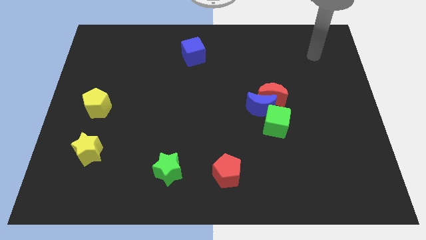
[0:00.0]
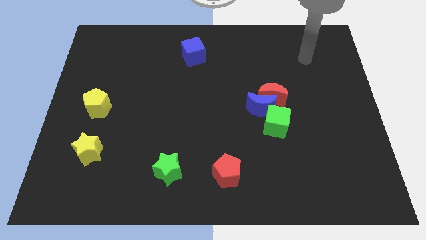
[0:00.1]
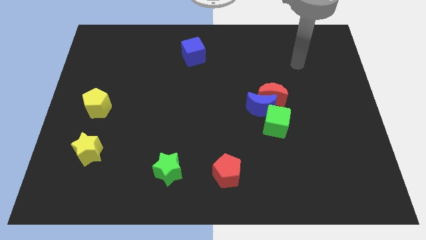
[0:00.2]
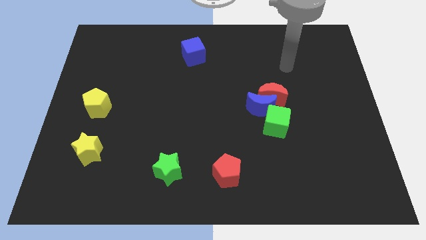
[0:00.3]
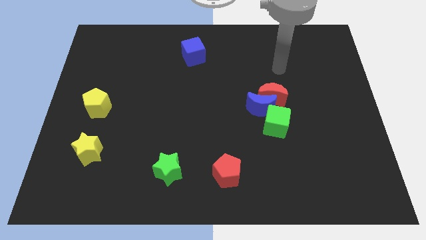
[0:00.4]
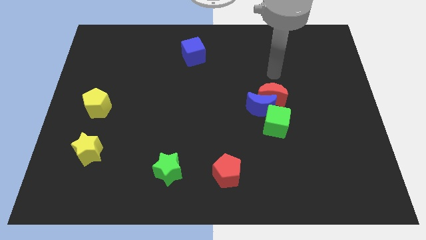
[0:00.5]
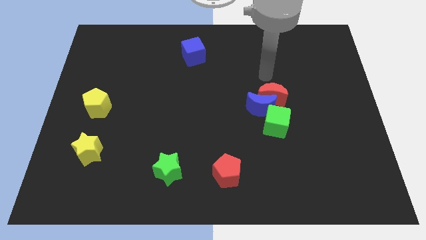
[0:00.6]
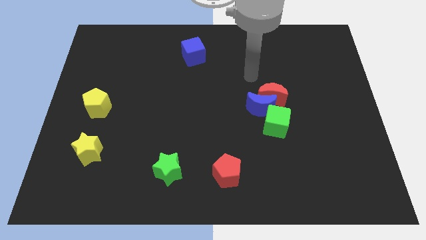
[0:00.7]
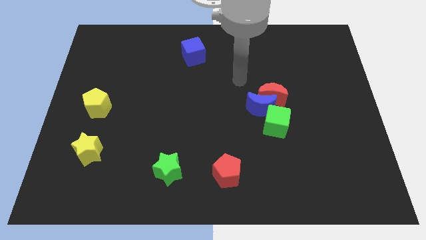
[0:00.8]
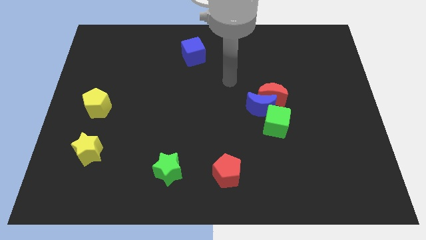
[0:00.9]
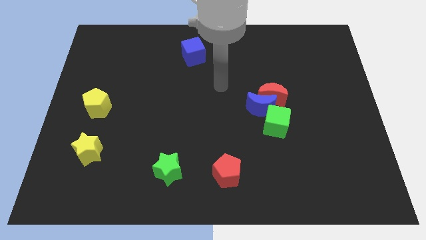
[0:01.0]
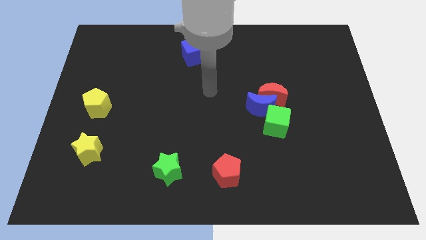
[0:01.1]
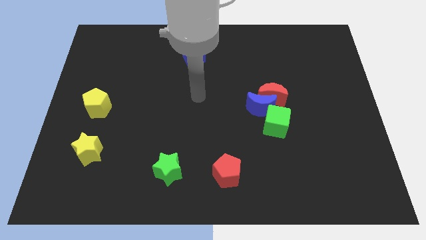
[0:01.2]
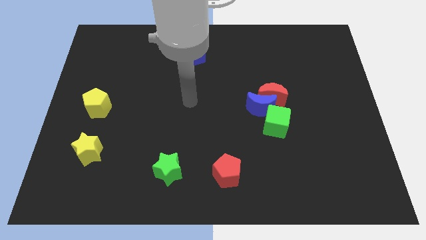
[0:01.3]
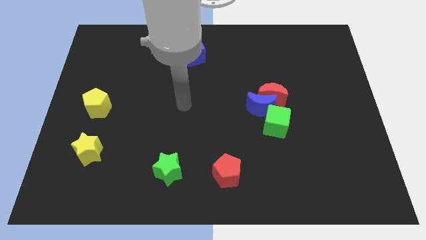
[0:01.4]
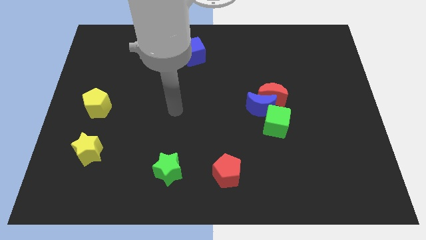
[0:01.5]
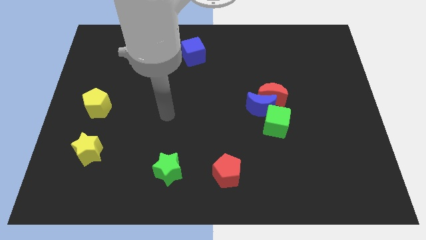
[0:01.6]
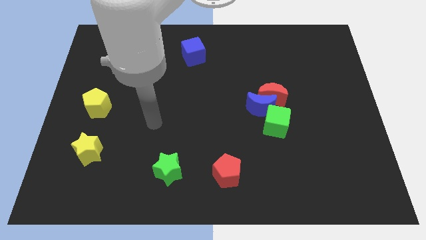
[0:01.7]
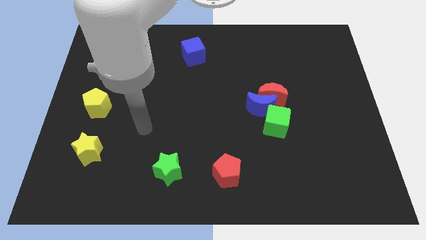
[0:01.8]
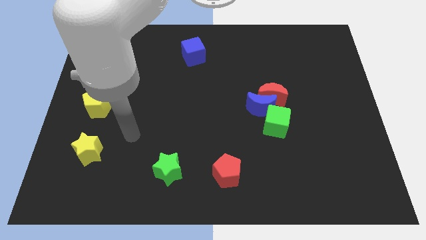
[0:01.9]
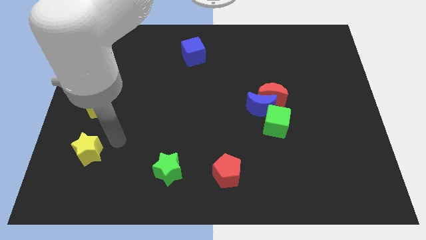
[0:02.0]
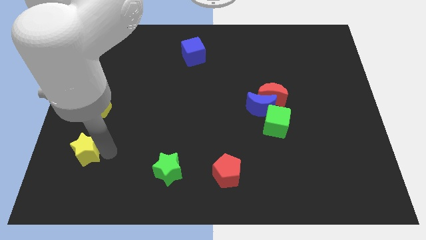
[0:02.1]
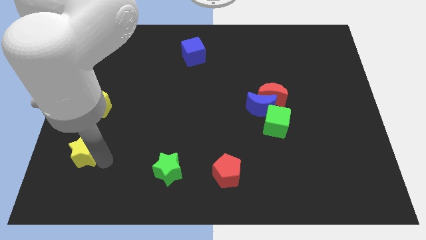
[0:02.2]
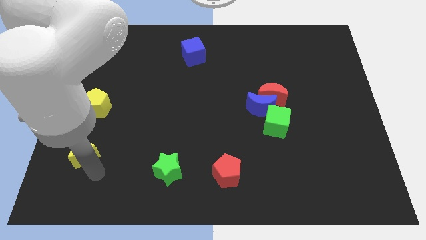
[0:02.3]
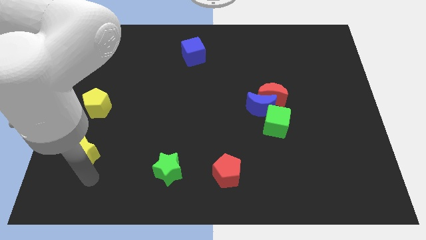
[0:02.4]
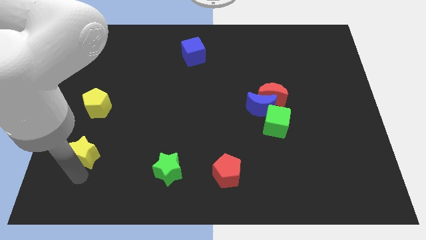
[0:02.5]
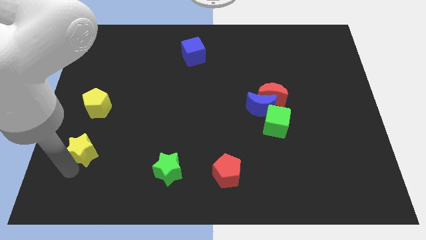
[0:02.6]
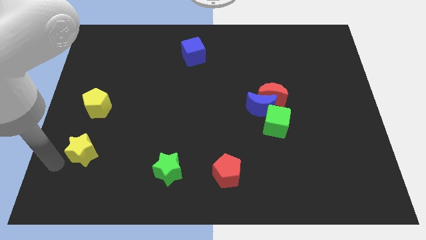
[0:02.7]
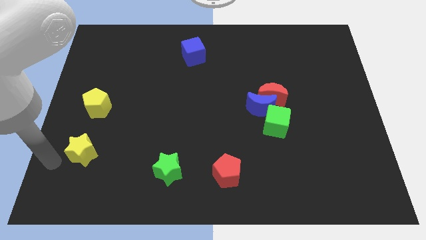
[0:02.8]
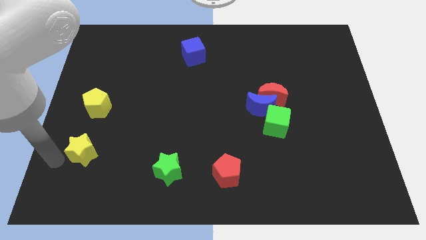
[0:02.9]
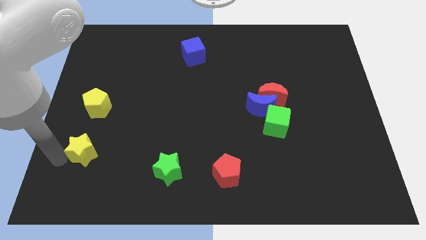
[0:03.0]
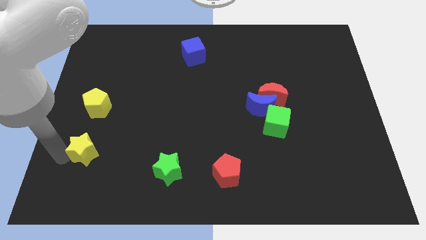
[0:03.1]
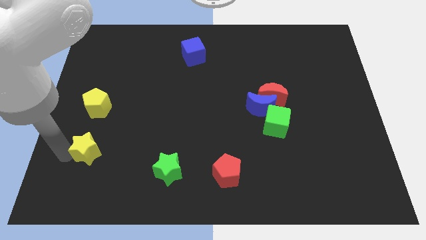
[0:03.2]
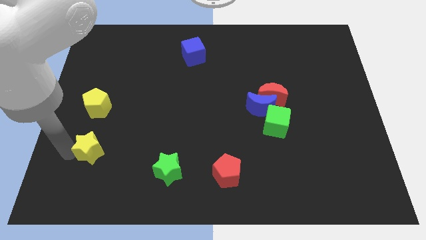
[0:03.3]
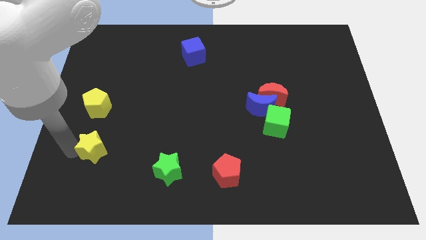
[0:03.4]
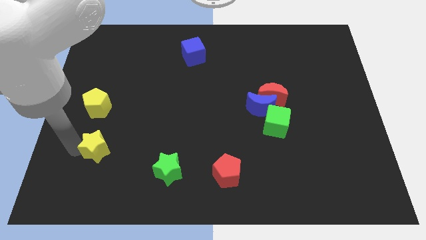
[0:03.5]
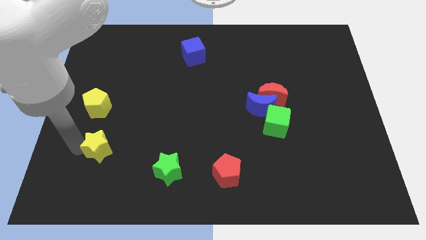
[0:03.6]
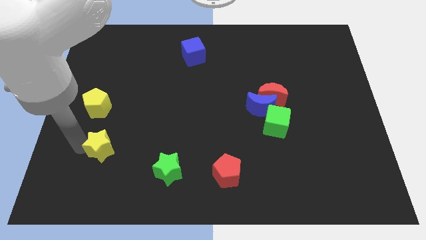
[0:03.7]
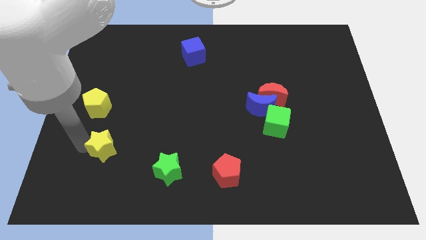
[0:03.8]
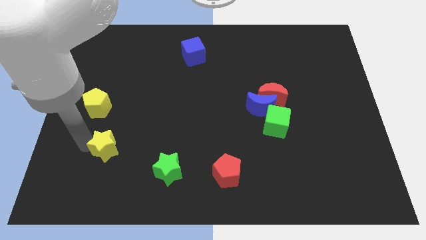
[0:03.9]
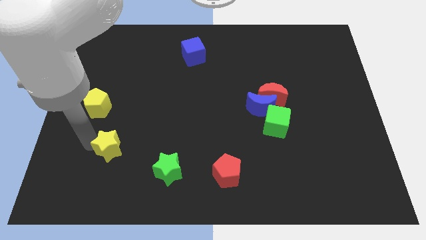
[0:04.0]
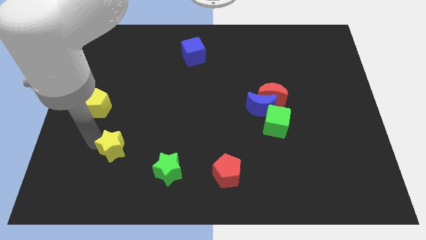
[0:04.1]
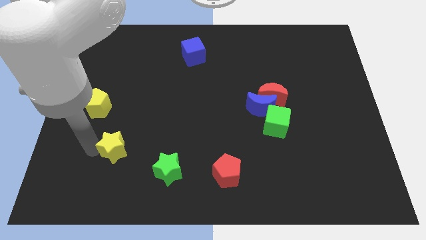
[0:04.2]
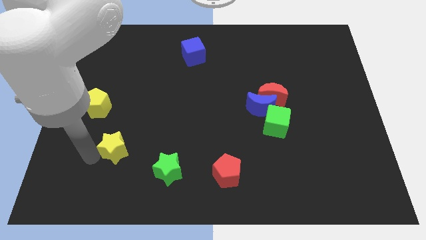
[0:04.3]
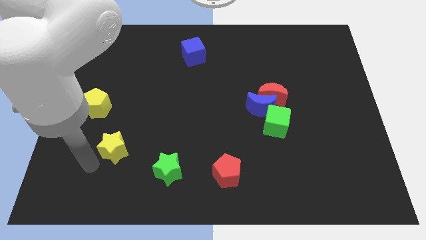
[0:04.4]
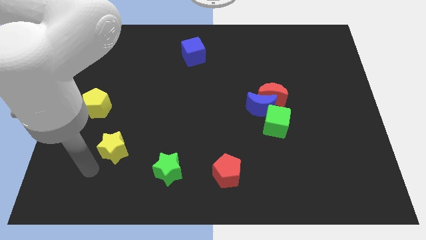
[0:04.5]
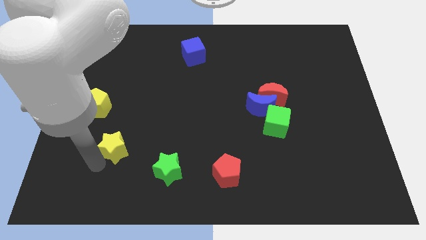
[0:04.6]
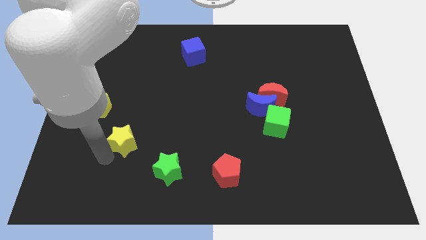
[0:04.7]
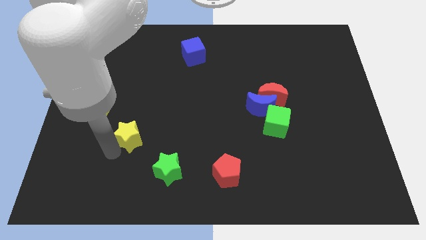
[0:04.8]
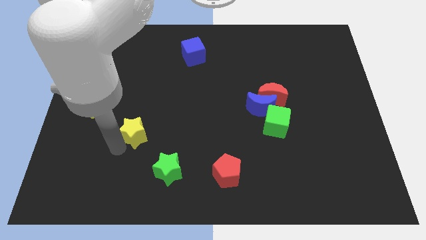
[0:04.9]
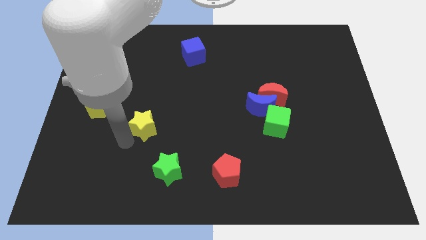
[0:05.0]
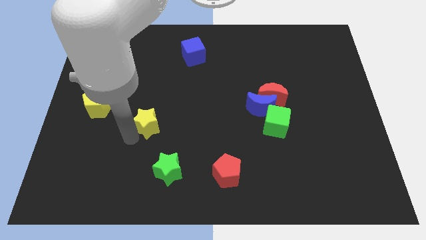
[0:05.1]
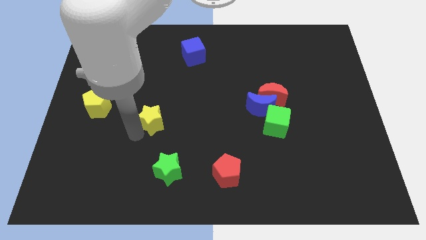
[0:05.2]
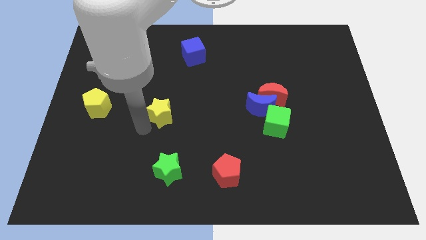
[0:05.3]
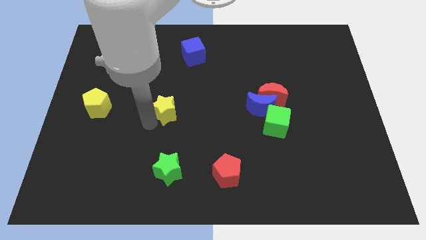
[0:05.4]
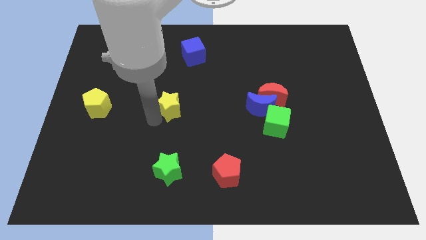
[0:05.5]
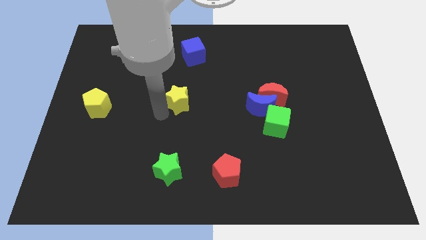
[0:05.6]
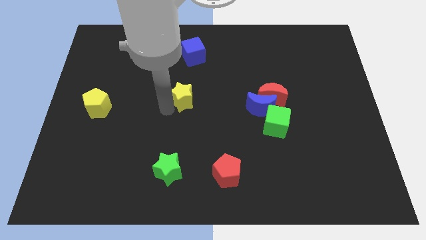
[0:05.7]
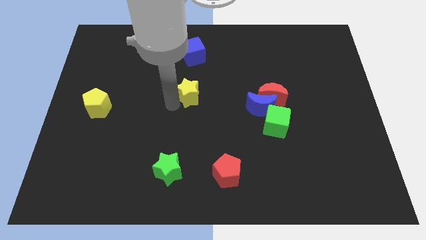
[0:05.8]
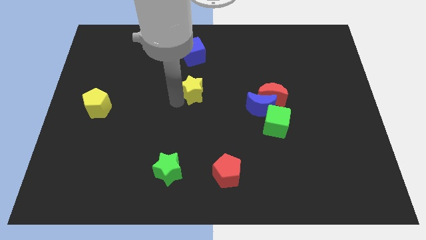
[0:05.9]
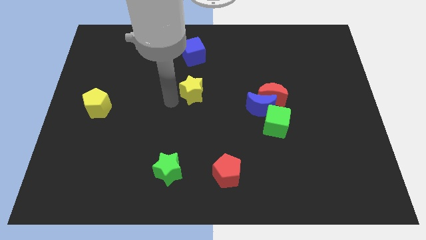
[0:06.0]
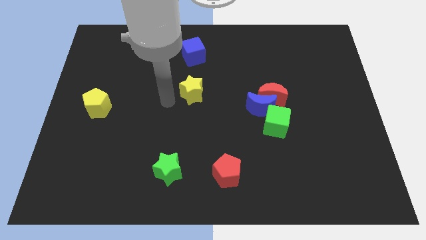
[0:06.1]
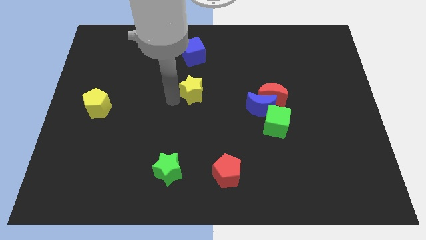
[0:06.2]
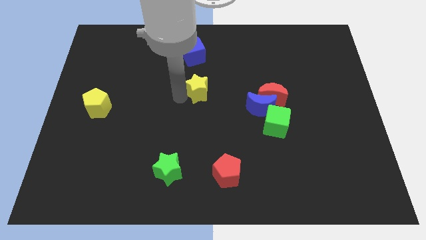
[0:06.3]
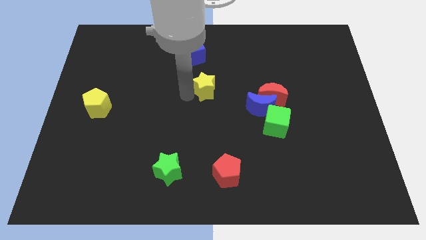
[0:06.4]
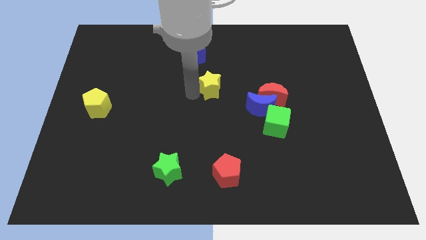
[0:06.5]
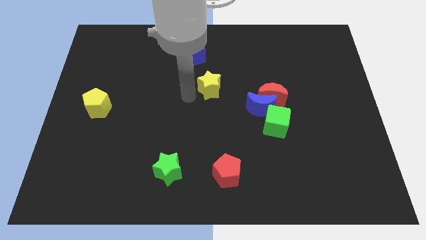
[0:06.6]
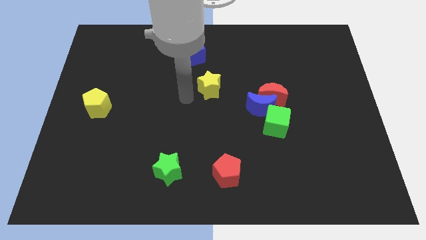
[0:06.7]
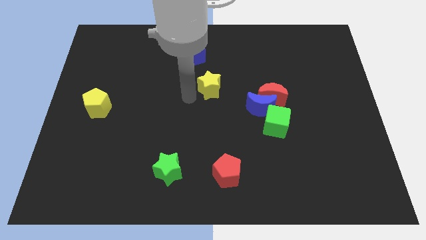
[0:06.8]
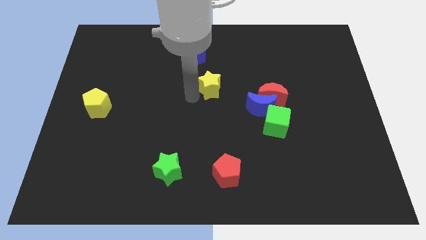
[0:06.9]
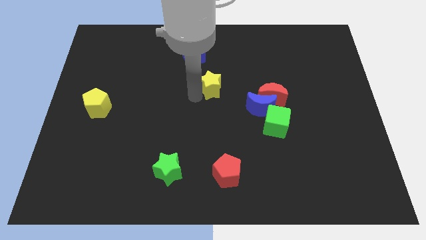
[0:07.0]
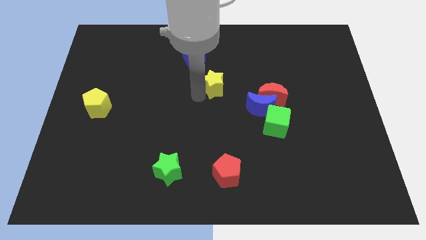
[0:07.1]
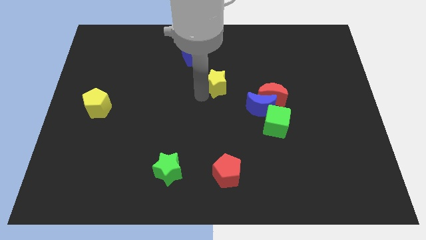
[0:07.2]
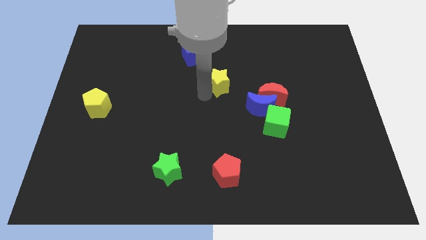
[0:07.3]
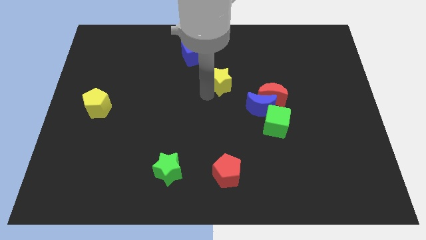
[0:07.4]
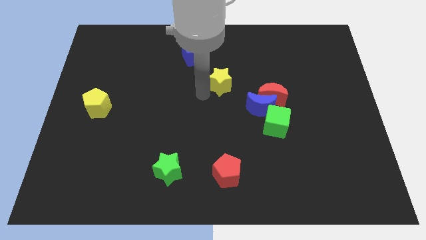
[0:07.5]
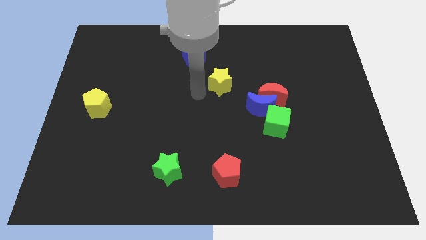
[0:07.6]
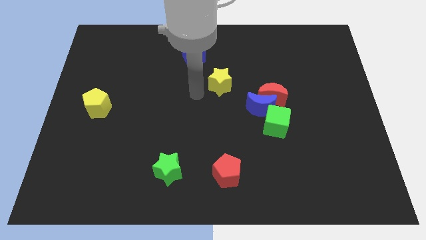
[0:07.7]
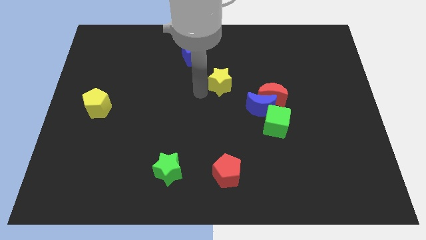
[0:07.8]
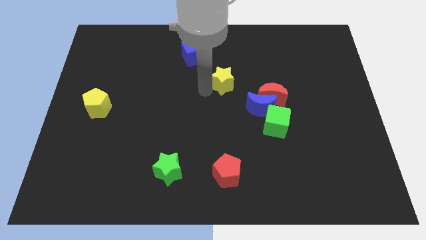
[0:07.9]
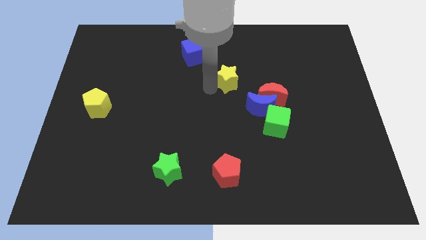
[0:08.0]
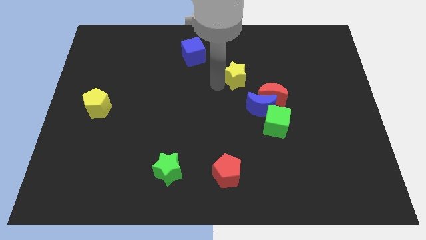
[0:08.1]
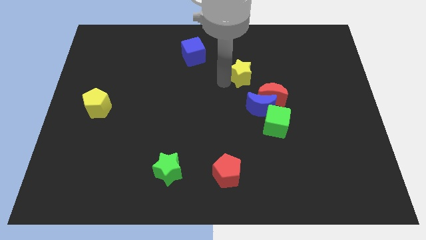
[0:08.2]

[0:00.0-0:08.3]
slide the yellow star to the top side of the blue moon
